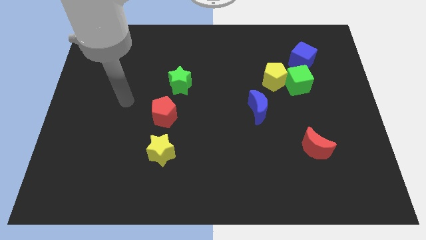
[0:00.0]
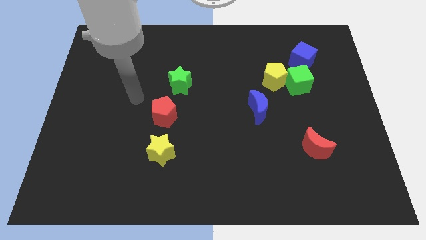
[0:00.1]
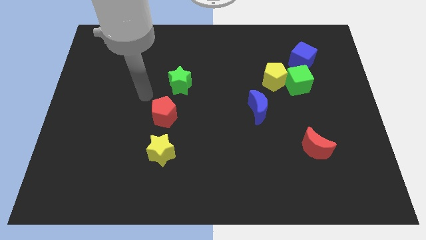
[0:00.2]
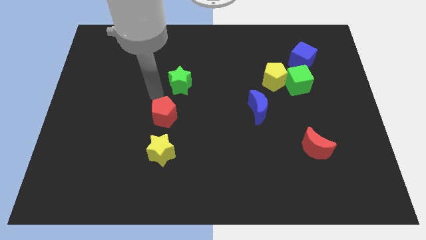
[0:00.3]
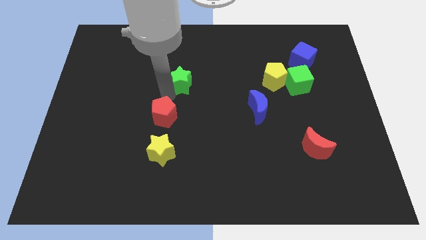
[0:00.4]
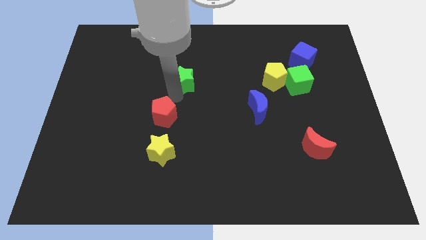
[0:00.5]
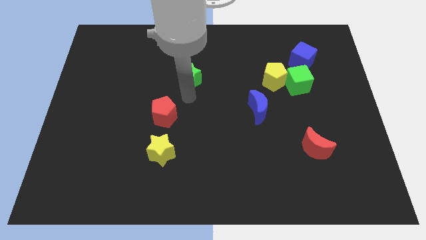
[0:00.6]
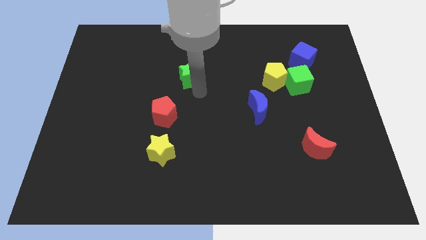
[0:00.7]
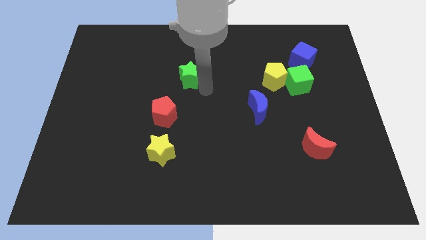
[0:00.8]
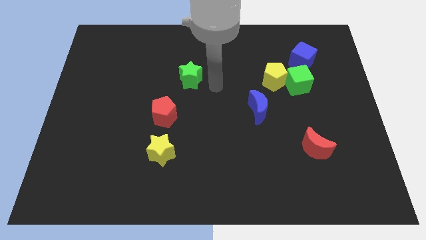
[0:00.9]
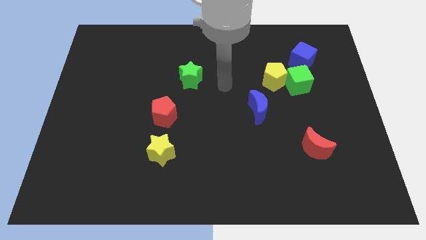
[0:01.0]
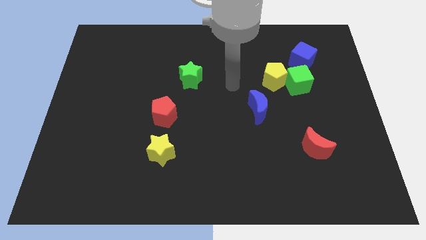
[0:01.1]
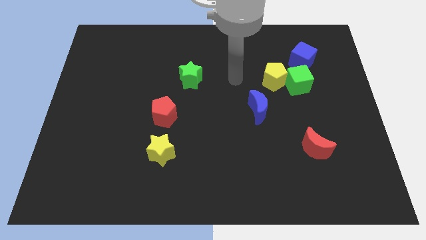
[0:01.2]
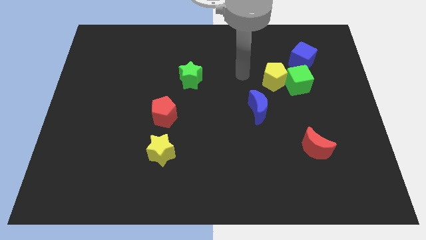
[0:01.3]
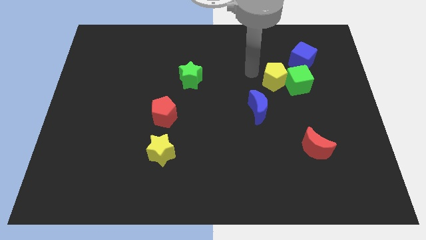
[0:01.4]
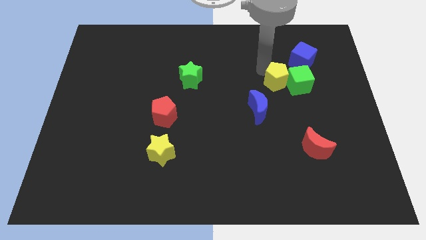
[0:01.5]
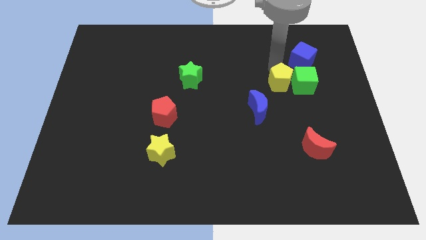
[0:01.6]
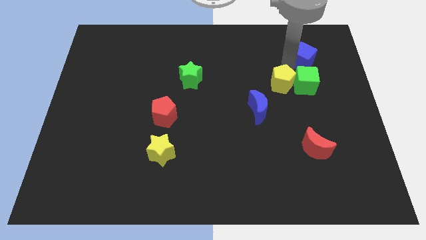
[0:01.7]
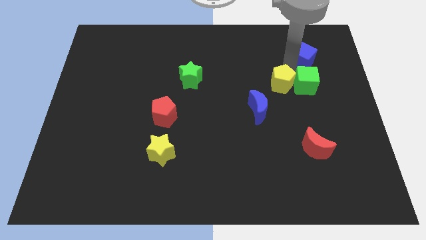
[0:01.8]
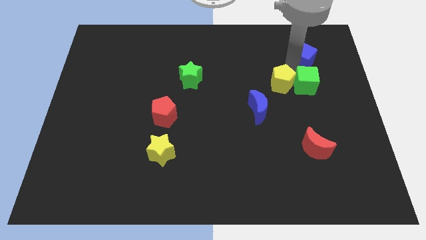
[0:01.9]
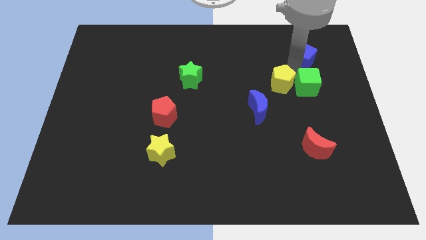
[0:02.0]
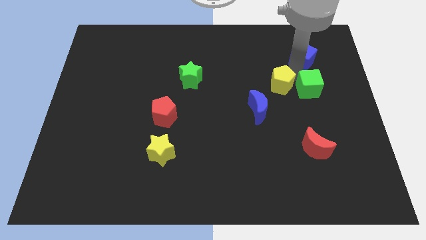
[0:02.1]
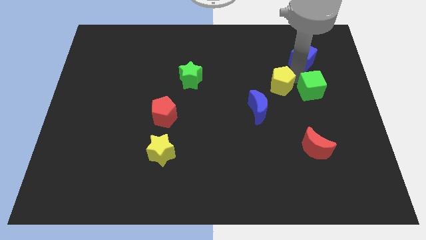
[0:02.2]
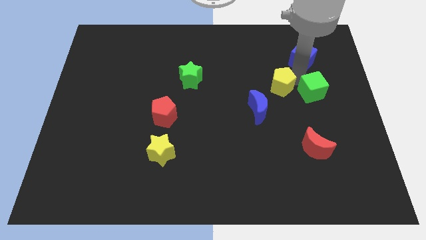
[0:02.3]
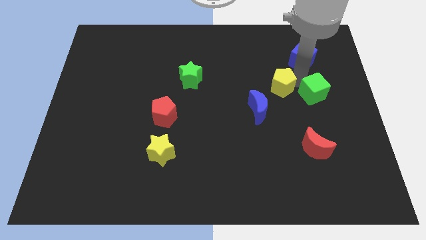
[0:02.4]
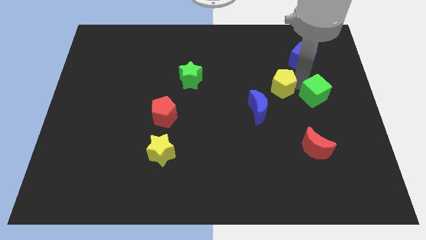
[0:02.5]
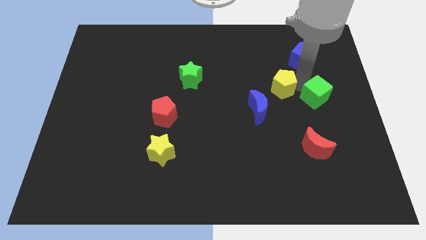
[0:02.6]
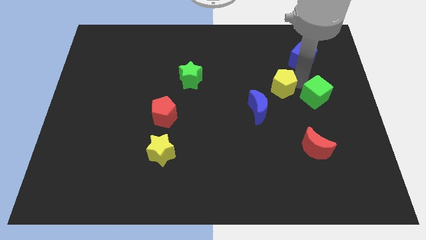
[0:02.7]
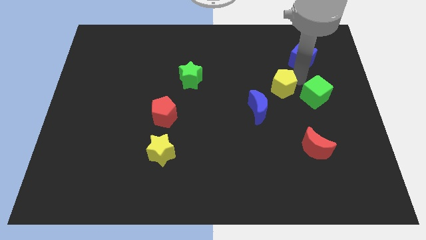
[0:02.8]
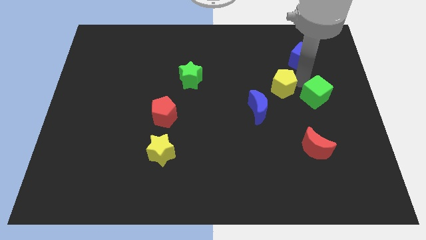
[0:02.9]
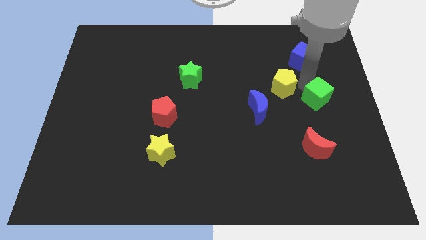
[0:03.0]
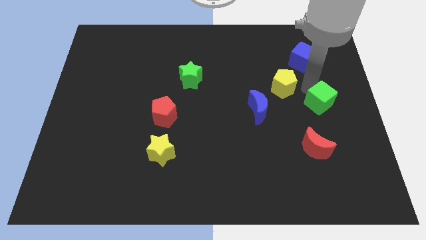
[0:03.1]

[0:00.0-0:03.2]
pull the green cube apart from the yellow pentagon and blue cube

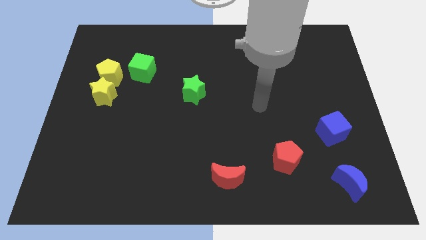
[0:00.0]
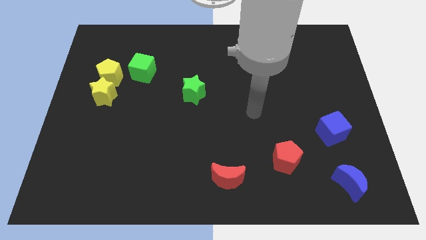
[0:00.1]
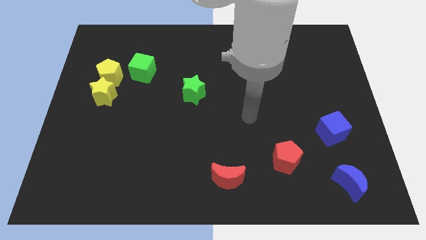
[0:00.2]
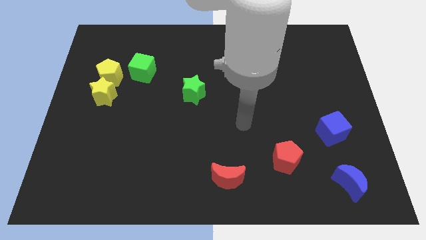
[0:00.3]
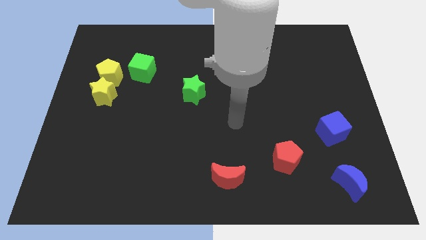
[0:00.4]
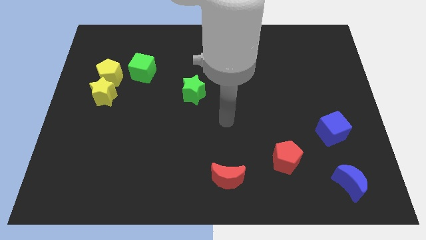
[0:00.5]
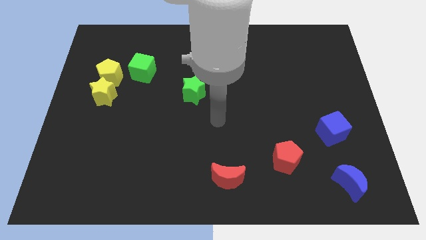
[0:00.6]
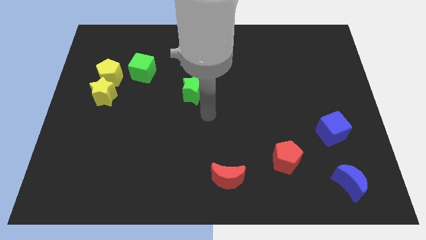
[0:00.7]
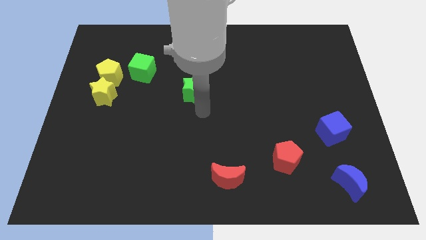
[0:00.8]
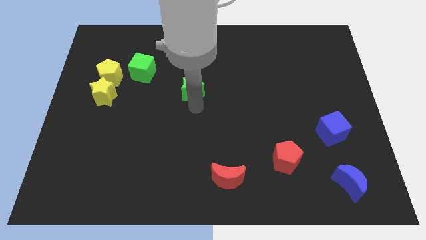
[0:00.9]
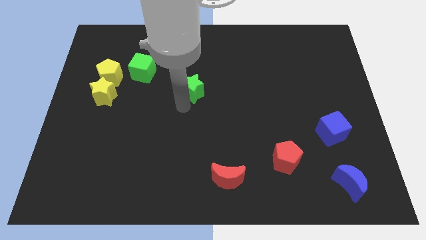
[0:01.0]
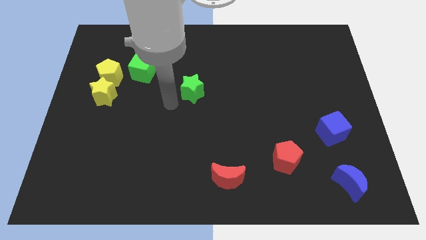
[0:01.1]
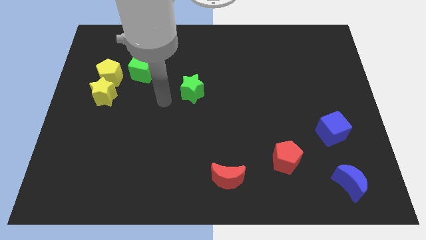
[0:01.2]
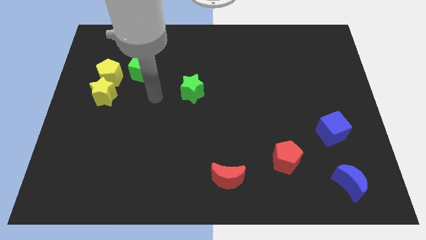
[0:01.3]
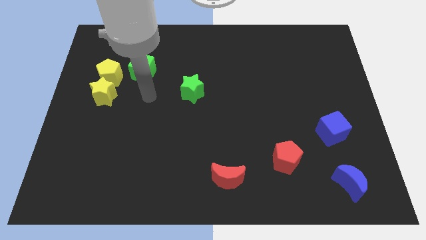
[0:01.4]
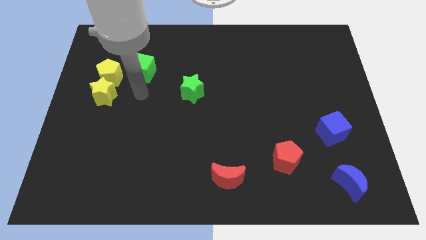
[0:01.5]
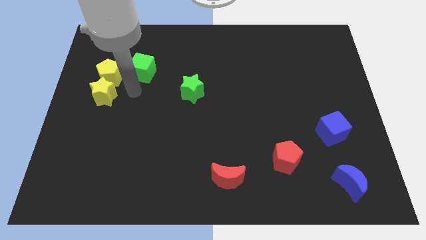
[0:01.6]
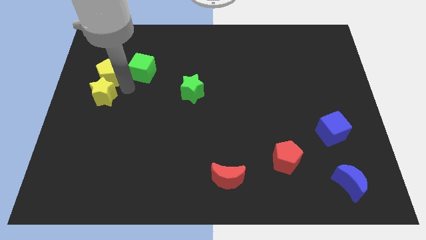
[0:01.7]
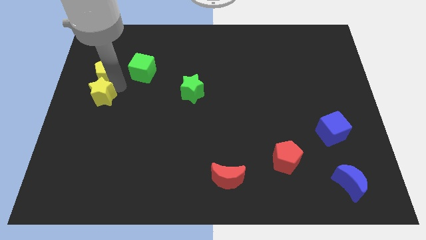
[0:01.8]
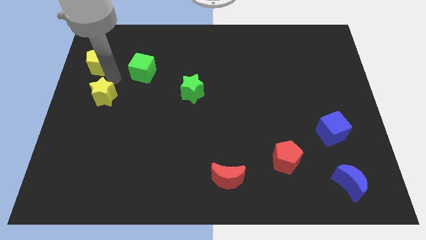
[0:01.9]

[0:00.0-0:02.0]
pull the yellow star apart from the yellow pentagon

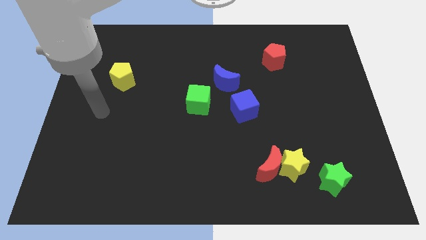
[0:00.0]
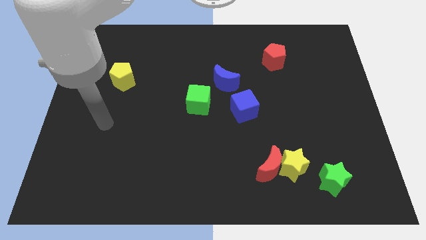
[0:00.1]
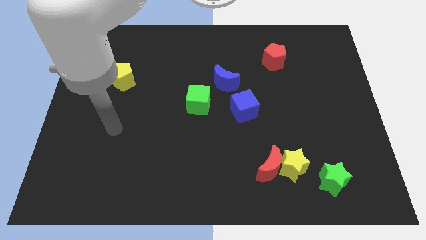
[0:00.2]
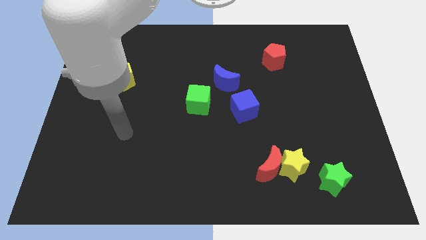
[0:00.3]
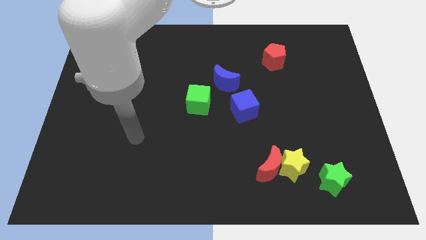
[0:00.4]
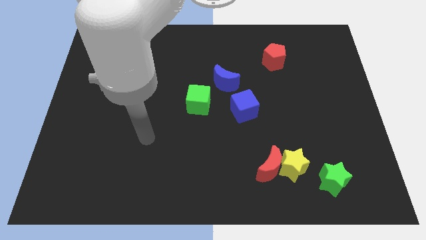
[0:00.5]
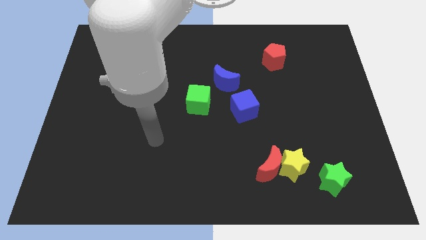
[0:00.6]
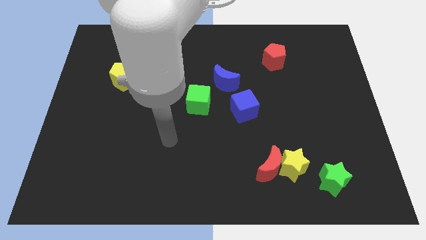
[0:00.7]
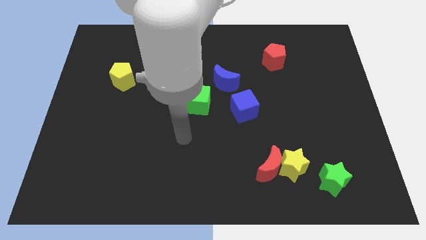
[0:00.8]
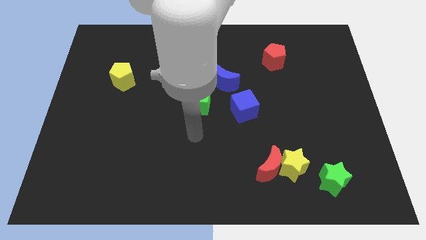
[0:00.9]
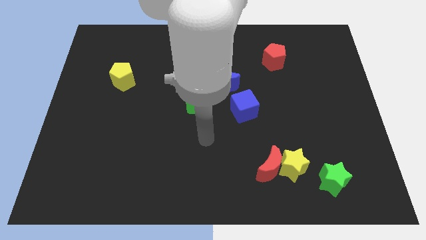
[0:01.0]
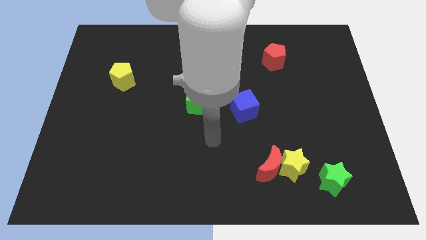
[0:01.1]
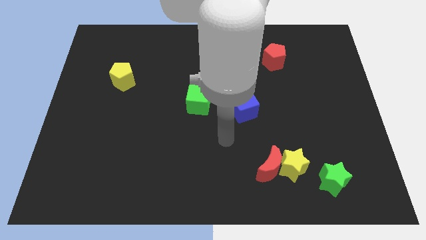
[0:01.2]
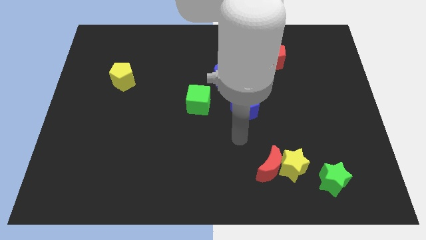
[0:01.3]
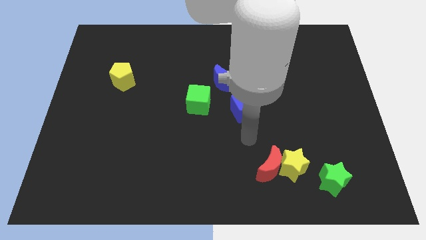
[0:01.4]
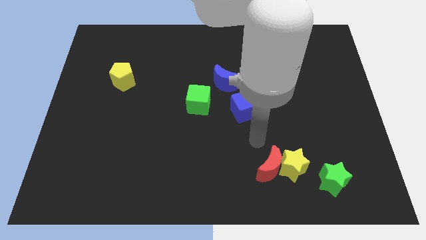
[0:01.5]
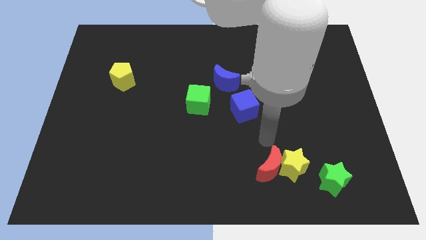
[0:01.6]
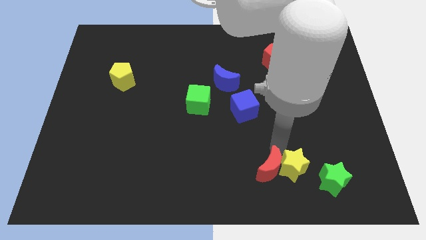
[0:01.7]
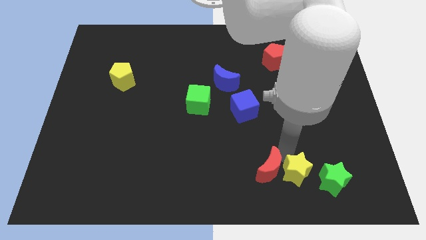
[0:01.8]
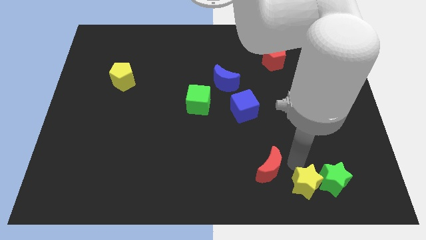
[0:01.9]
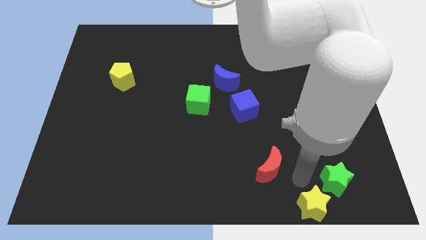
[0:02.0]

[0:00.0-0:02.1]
separate the red moon from the yellow star

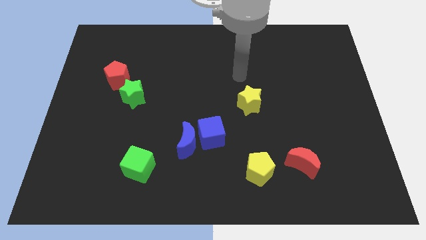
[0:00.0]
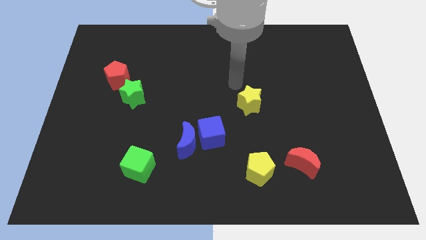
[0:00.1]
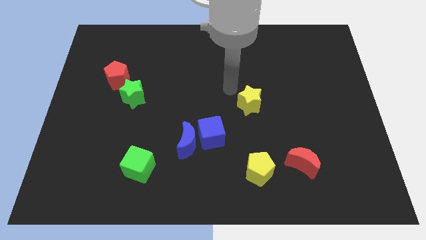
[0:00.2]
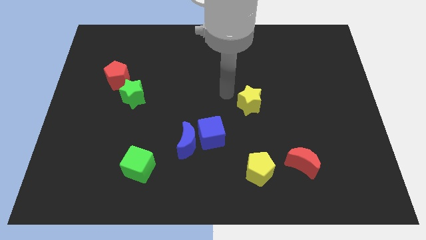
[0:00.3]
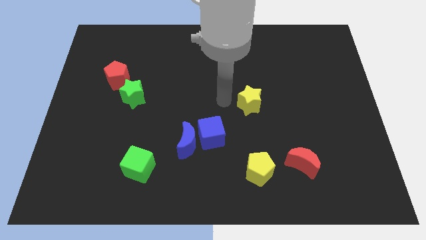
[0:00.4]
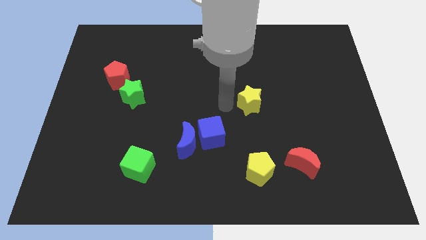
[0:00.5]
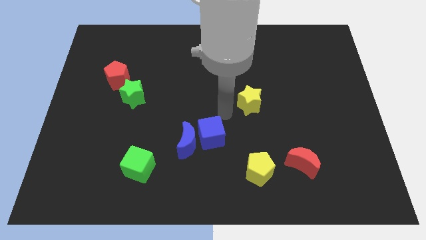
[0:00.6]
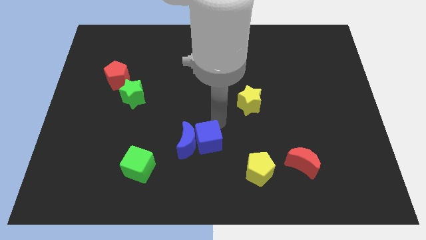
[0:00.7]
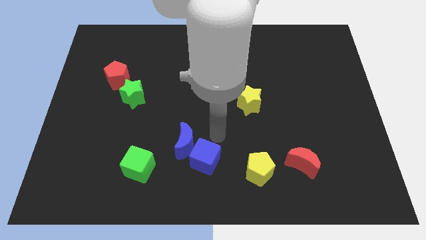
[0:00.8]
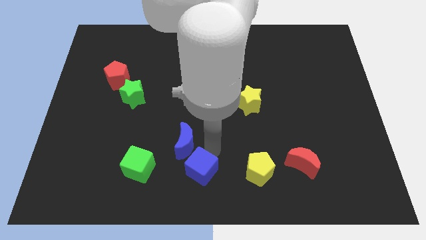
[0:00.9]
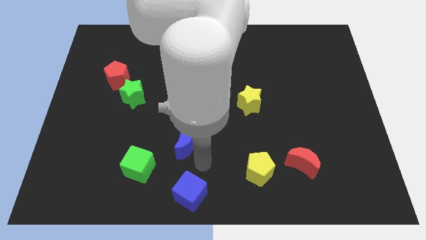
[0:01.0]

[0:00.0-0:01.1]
move the blue moon away from the blue cube

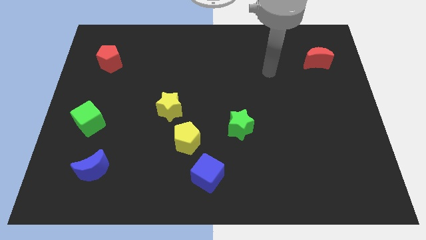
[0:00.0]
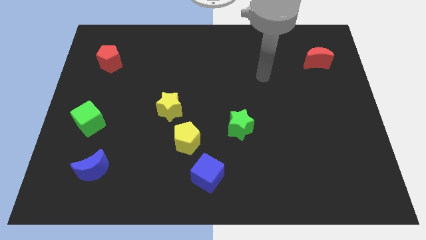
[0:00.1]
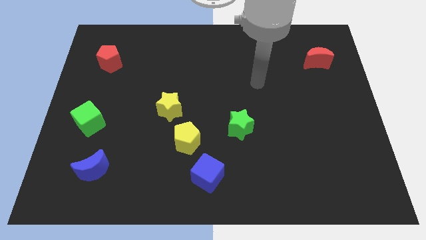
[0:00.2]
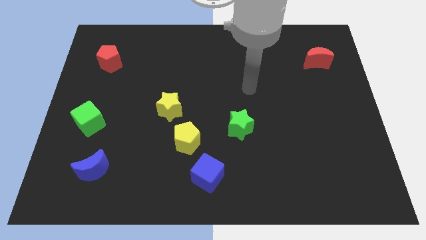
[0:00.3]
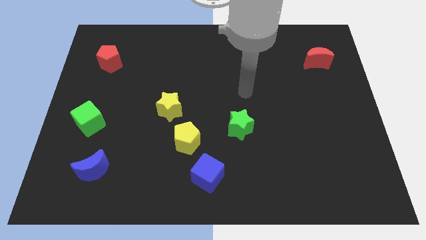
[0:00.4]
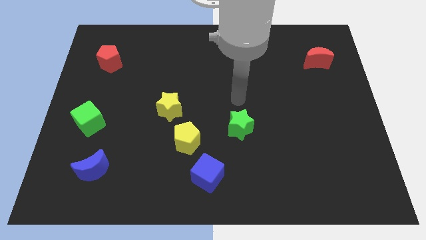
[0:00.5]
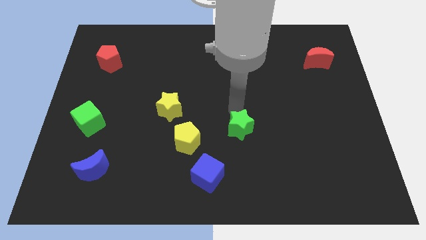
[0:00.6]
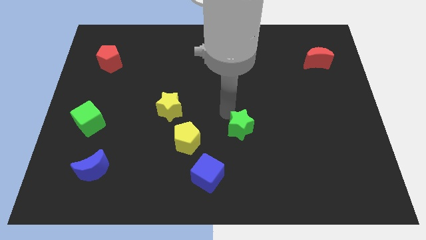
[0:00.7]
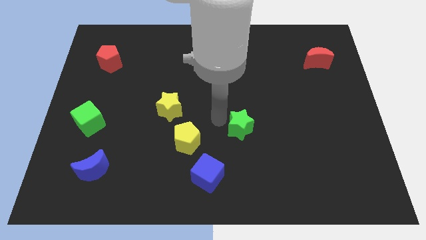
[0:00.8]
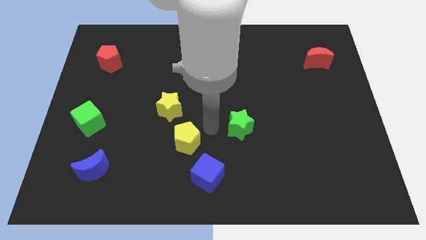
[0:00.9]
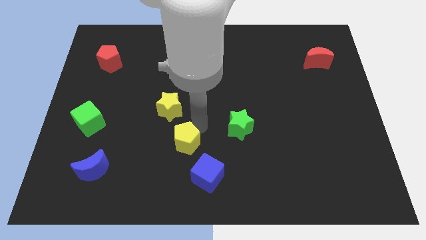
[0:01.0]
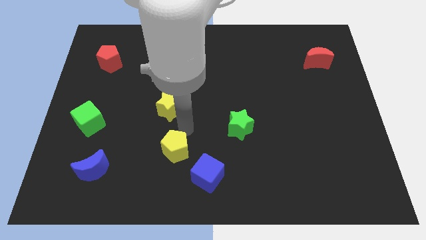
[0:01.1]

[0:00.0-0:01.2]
separate the yellow star from the yellow pentagon
